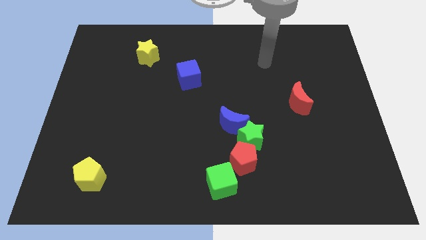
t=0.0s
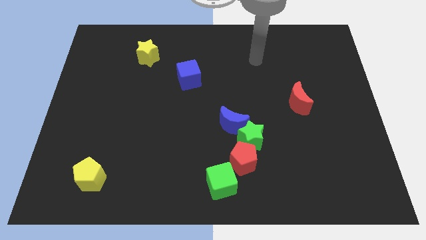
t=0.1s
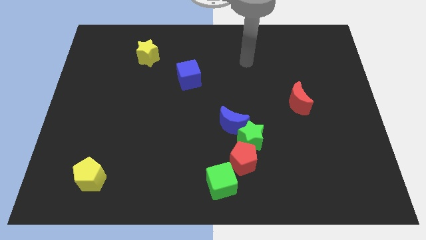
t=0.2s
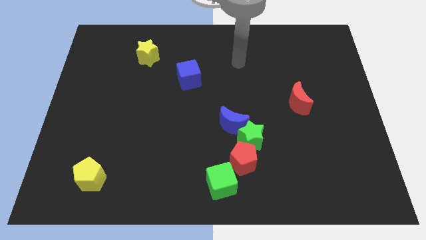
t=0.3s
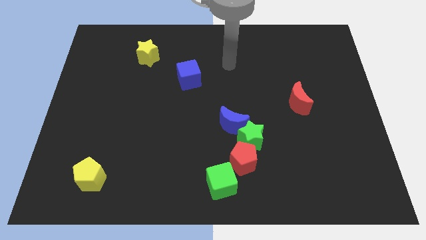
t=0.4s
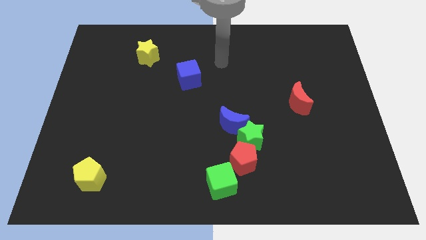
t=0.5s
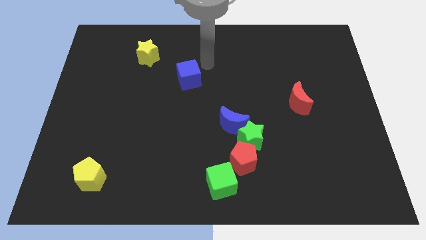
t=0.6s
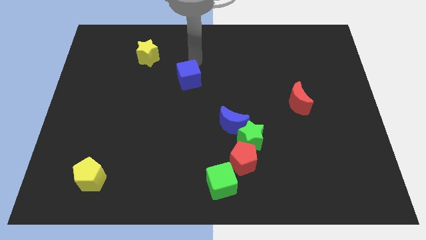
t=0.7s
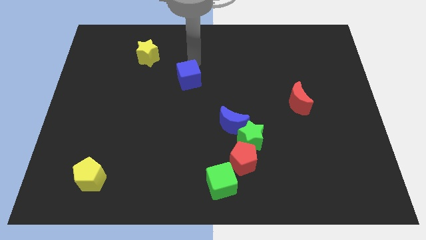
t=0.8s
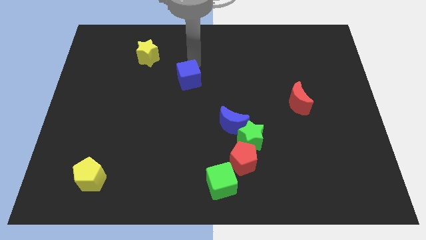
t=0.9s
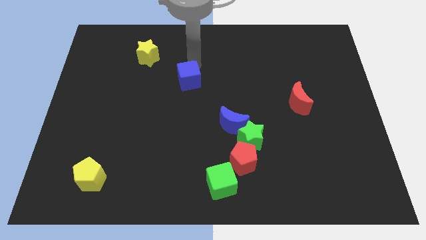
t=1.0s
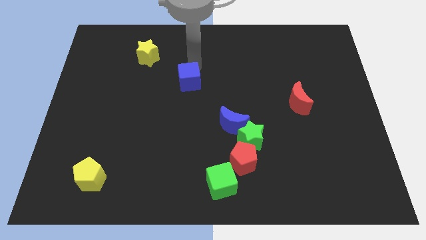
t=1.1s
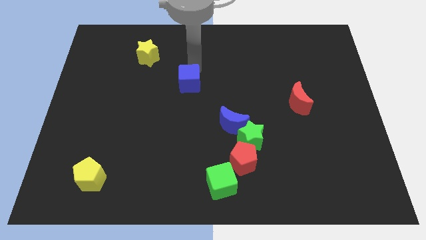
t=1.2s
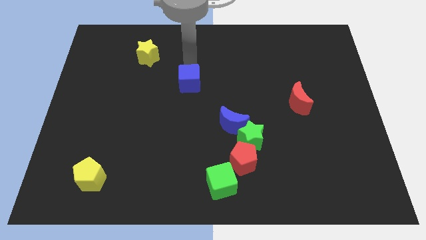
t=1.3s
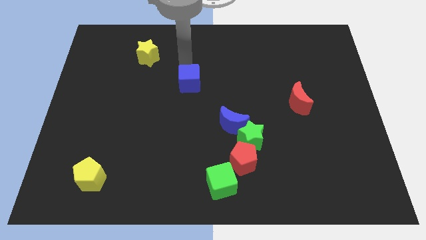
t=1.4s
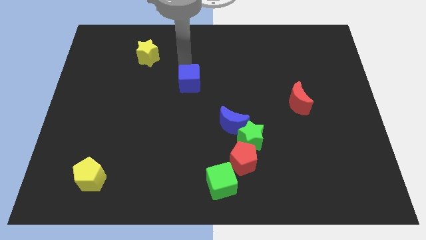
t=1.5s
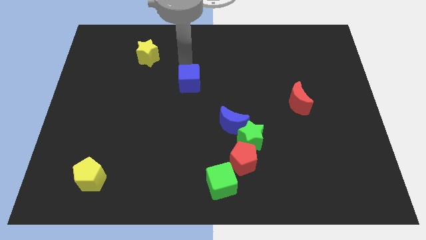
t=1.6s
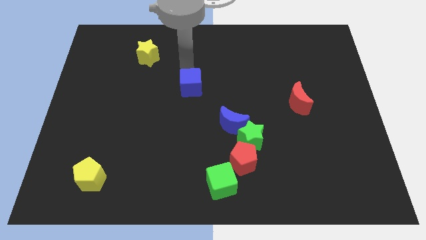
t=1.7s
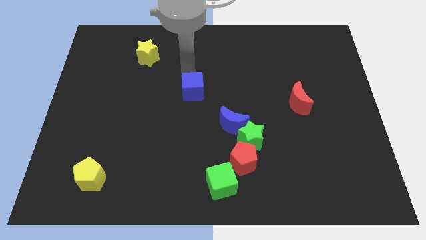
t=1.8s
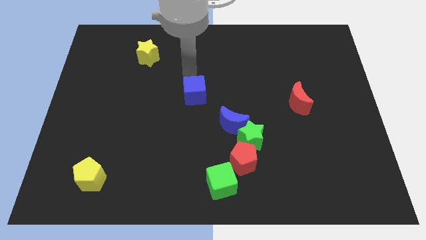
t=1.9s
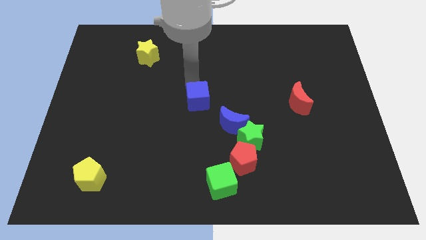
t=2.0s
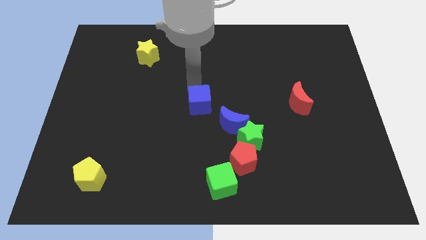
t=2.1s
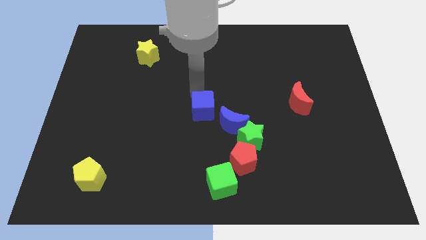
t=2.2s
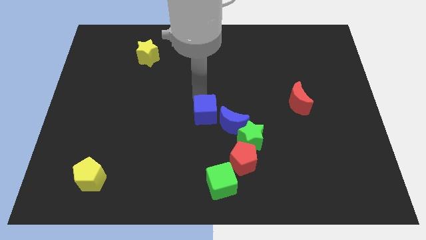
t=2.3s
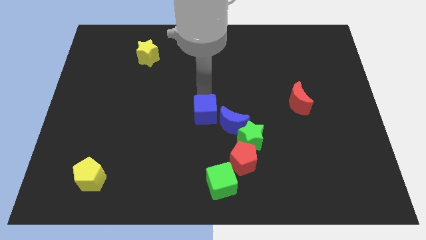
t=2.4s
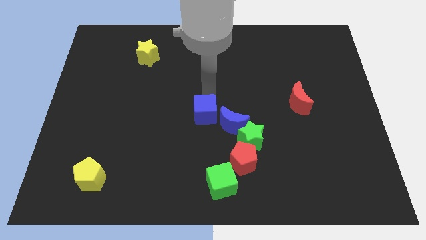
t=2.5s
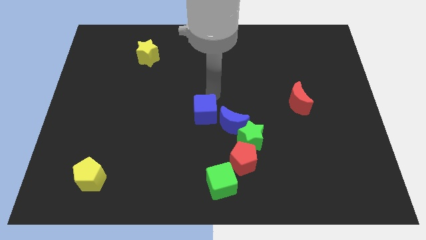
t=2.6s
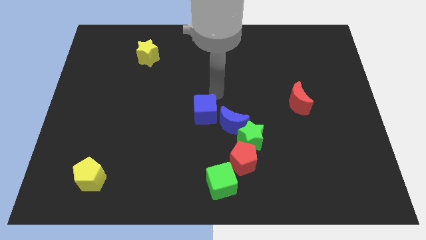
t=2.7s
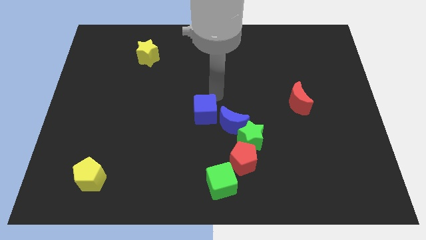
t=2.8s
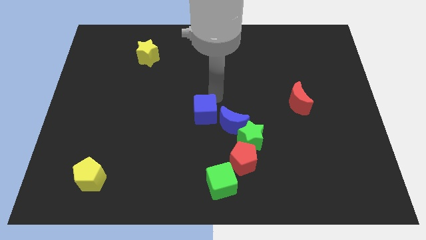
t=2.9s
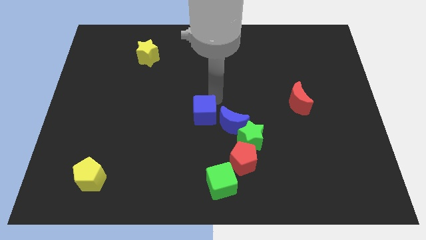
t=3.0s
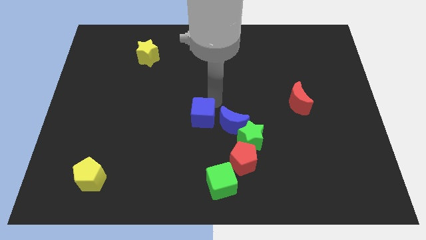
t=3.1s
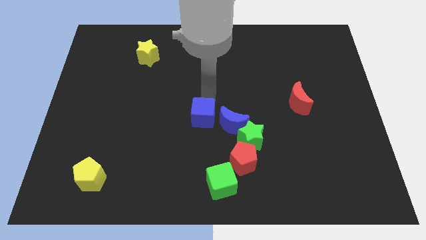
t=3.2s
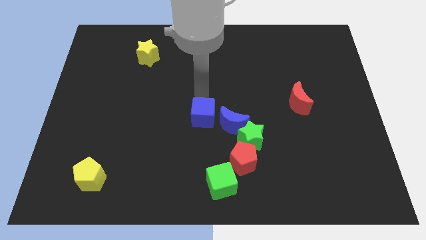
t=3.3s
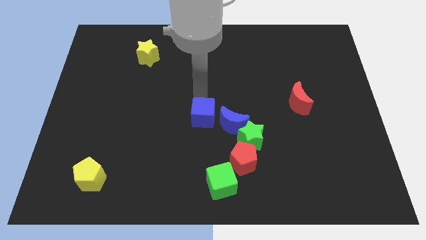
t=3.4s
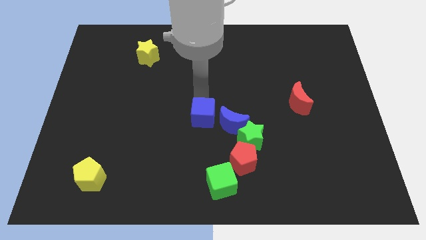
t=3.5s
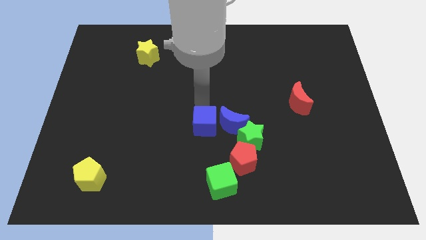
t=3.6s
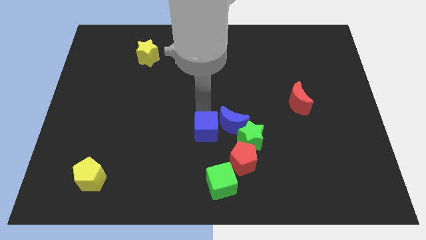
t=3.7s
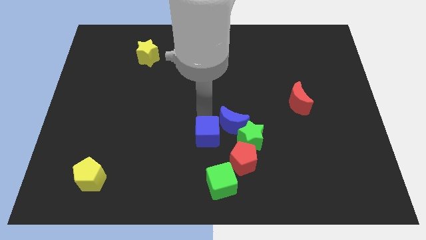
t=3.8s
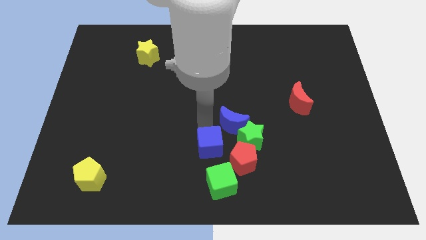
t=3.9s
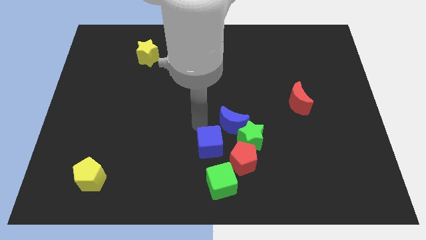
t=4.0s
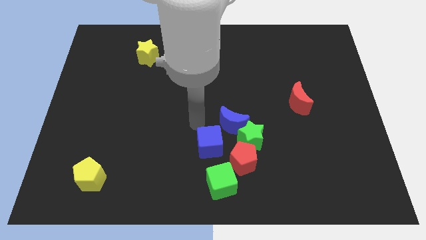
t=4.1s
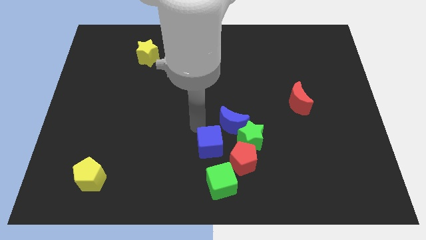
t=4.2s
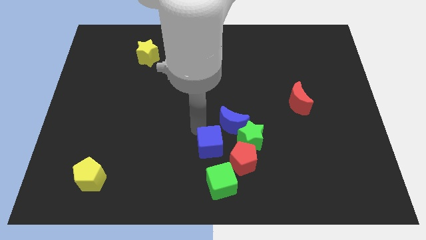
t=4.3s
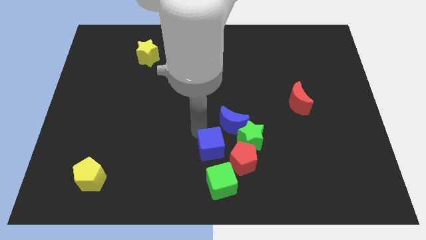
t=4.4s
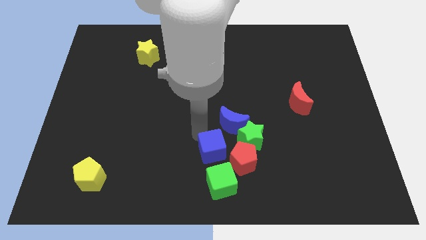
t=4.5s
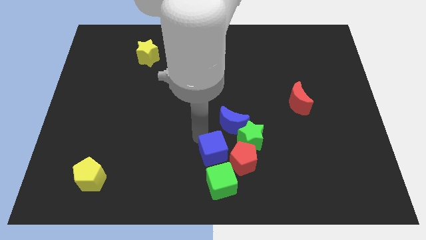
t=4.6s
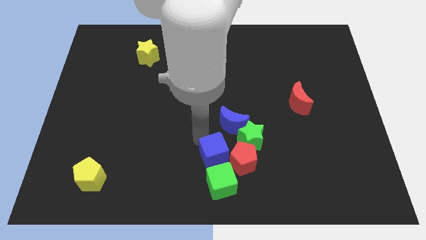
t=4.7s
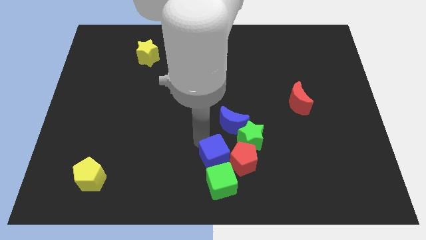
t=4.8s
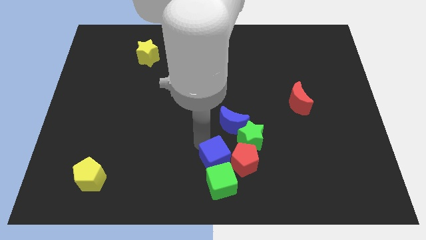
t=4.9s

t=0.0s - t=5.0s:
slide the blue cube to the green cube

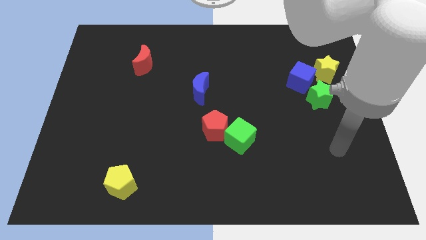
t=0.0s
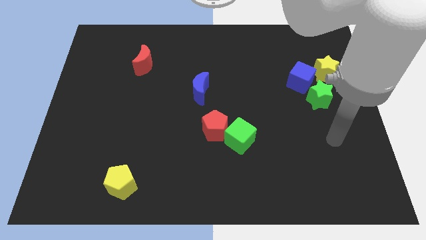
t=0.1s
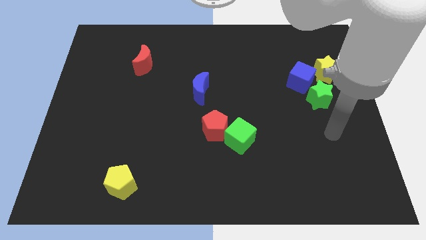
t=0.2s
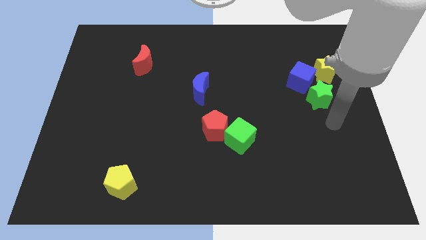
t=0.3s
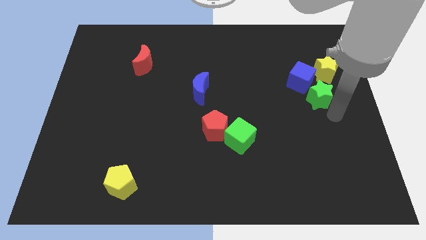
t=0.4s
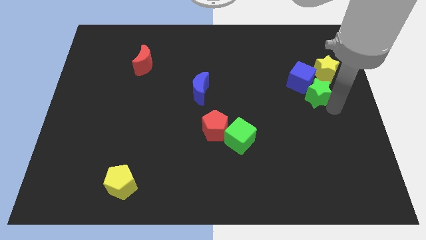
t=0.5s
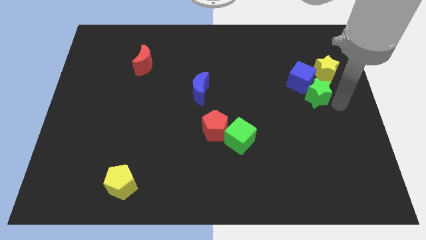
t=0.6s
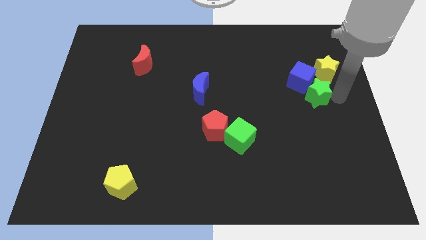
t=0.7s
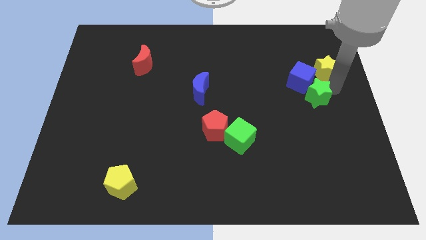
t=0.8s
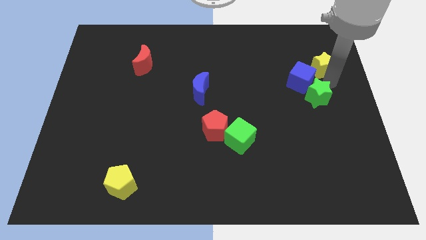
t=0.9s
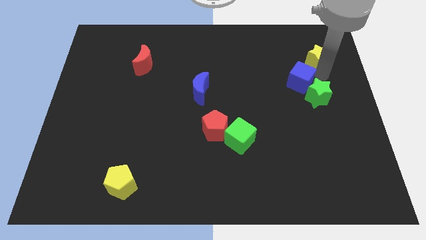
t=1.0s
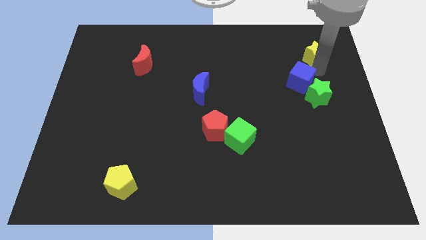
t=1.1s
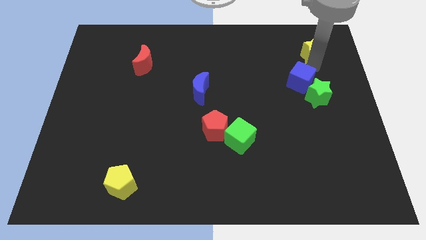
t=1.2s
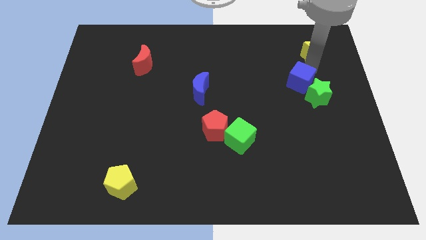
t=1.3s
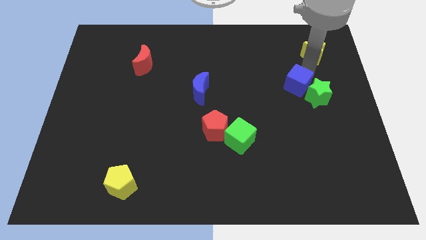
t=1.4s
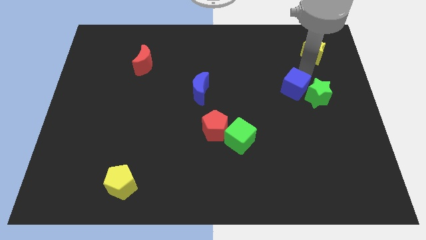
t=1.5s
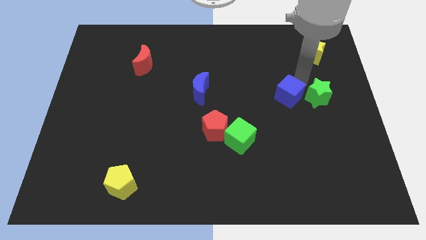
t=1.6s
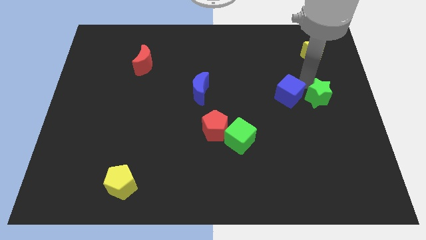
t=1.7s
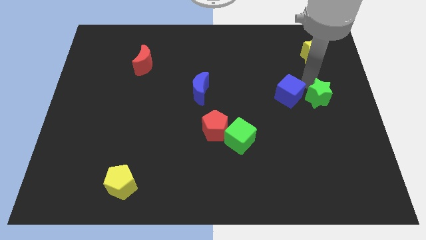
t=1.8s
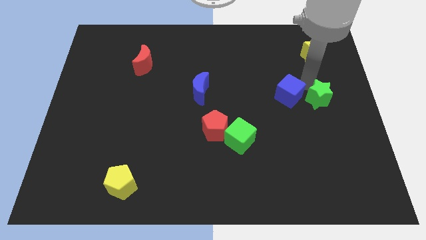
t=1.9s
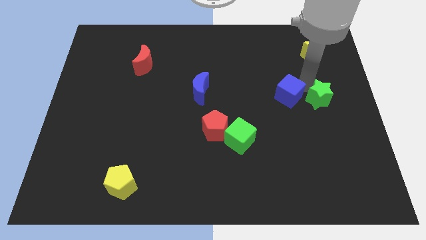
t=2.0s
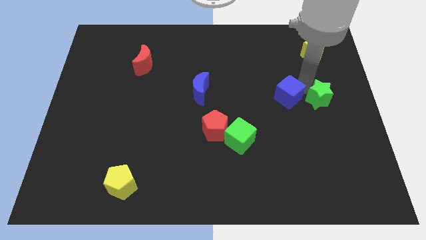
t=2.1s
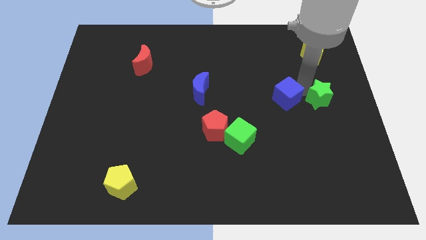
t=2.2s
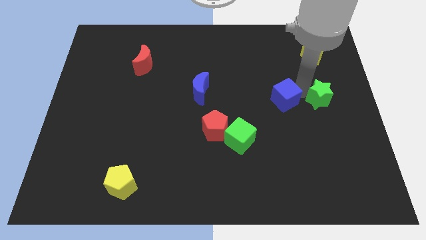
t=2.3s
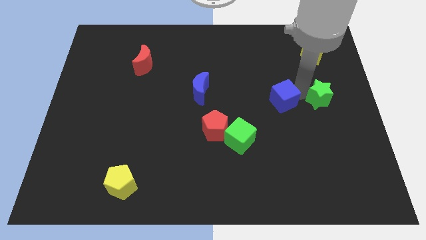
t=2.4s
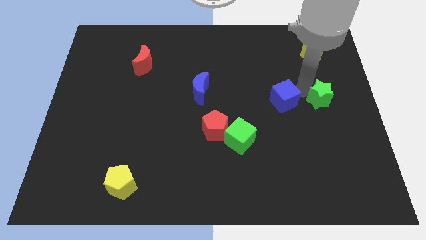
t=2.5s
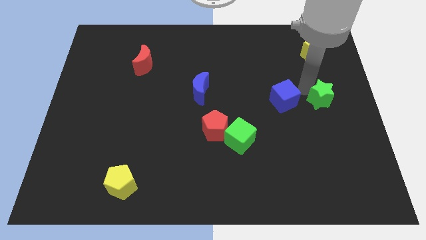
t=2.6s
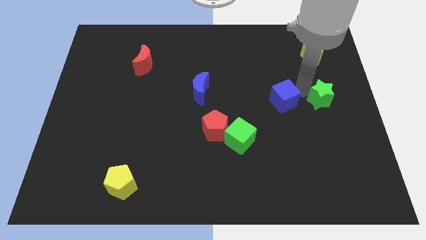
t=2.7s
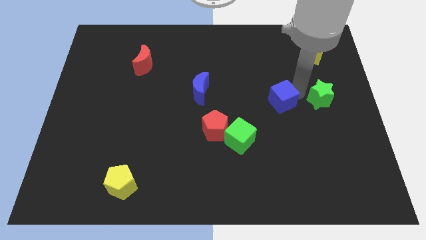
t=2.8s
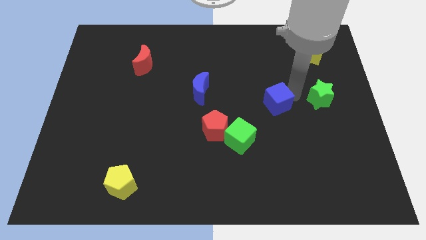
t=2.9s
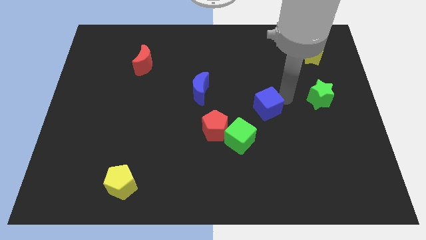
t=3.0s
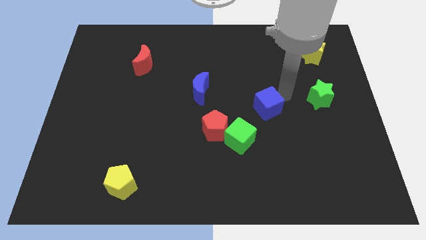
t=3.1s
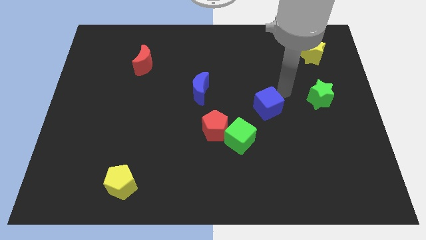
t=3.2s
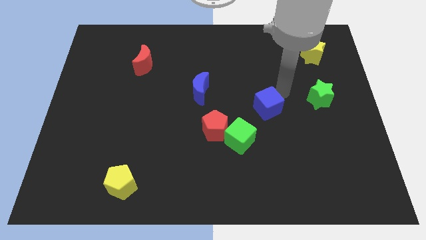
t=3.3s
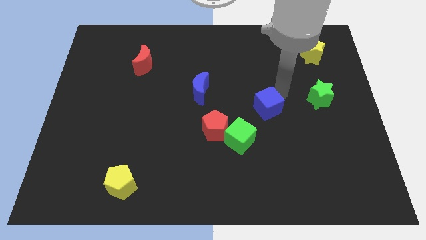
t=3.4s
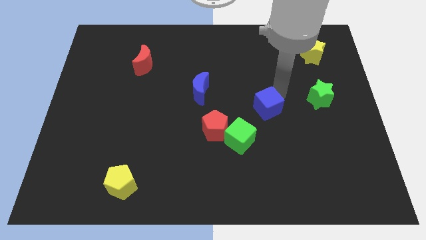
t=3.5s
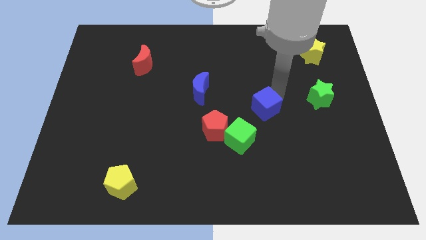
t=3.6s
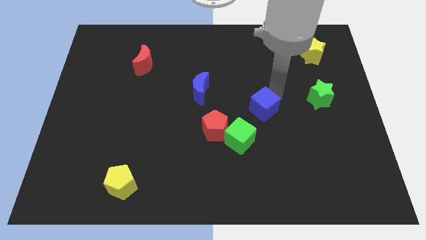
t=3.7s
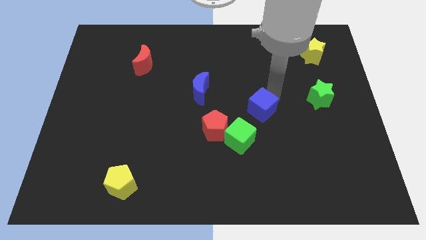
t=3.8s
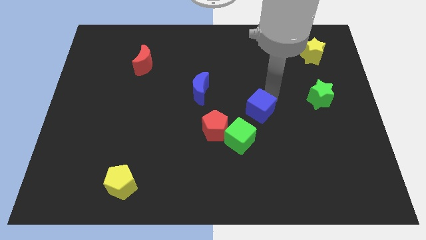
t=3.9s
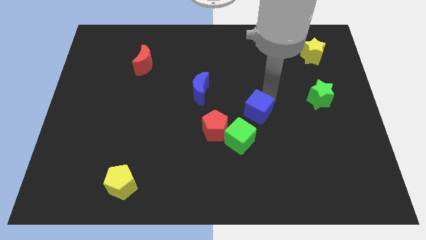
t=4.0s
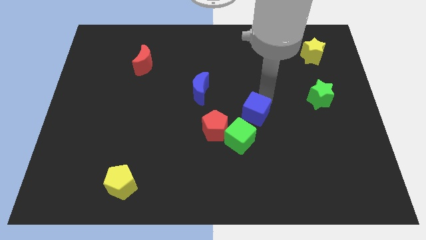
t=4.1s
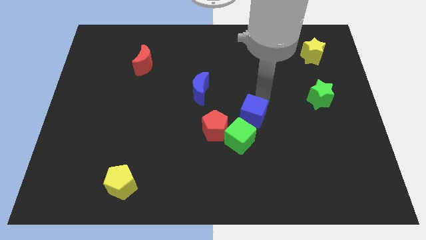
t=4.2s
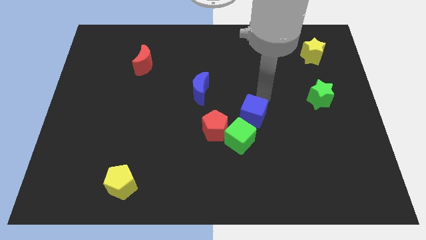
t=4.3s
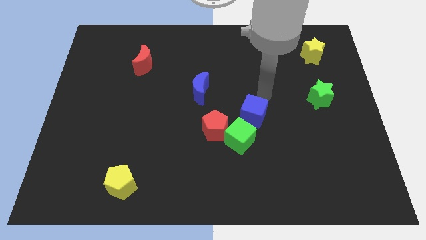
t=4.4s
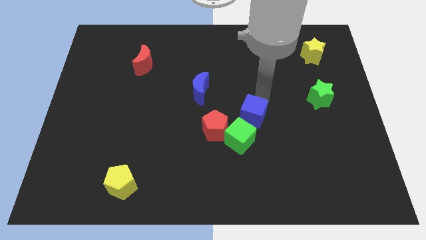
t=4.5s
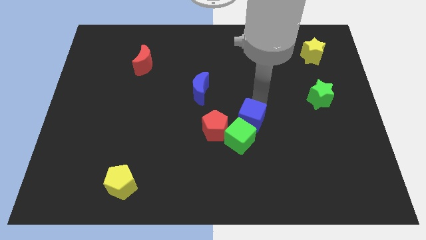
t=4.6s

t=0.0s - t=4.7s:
put the blue cube next to the green cube
